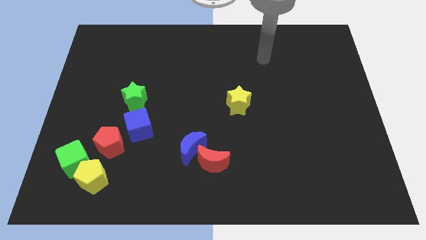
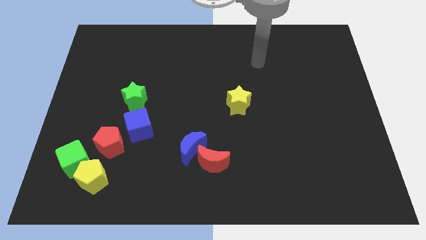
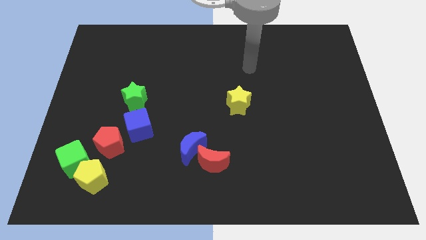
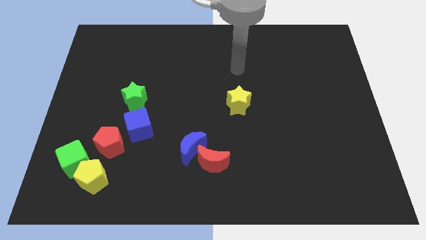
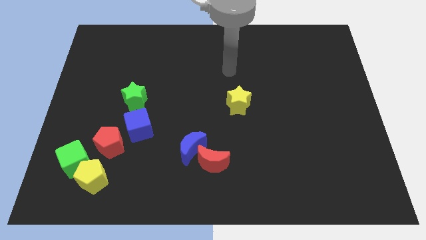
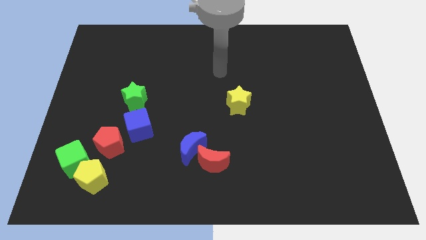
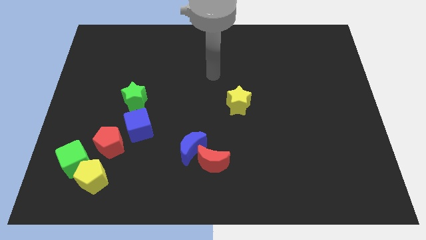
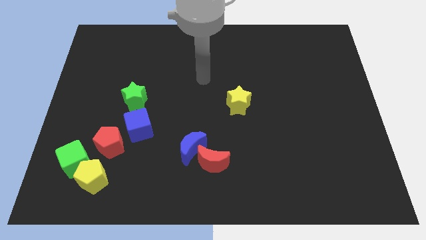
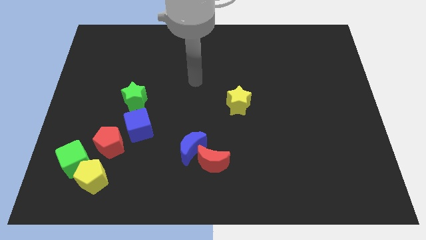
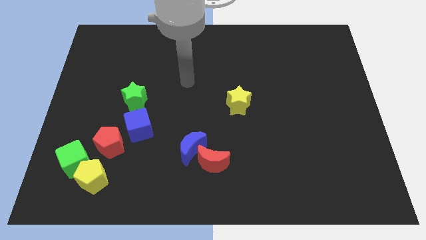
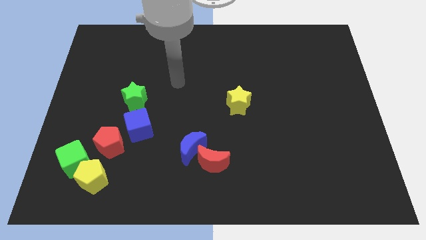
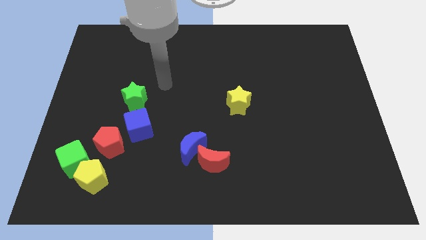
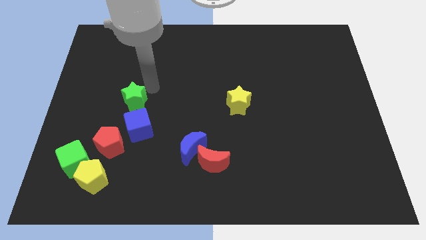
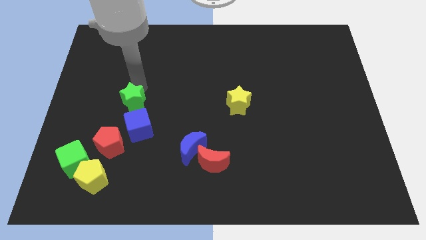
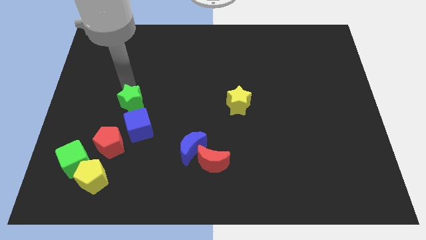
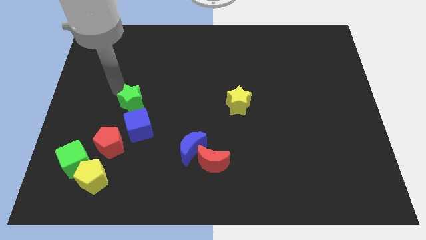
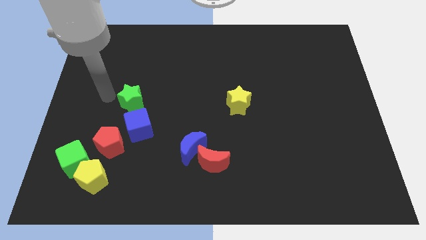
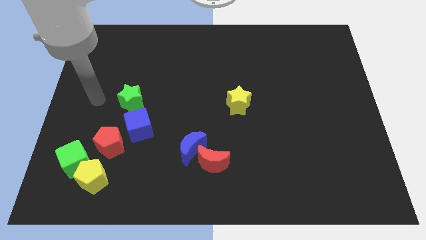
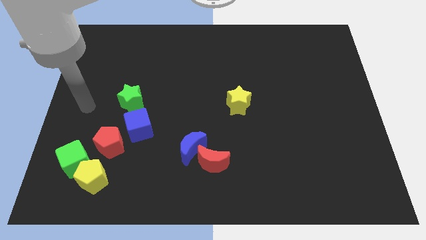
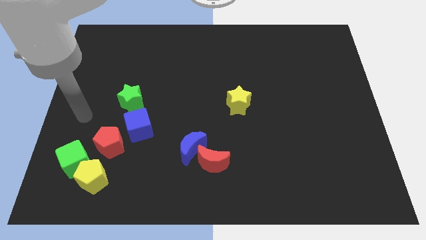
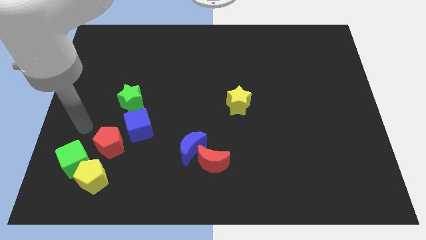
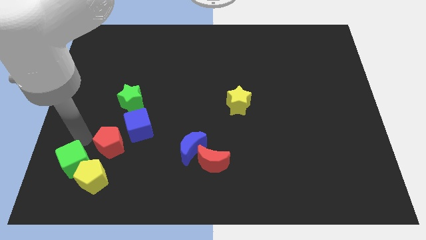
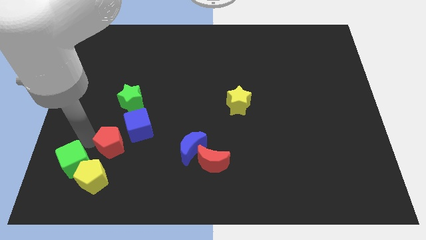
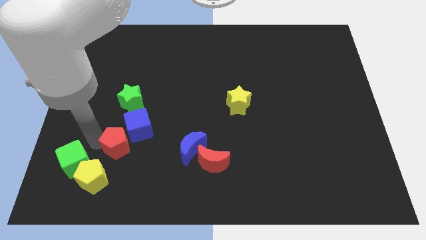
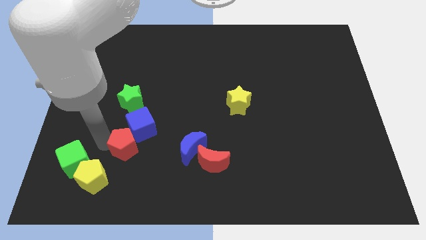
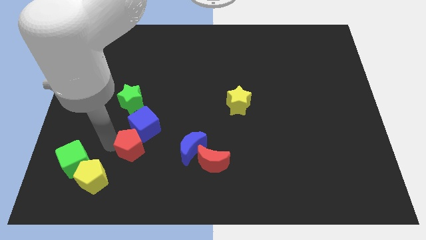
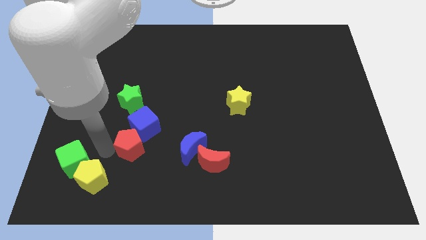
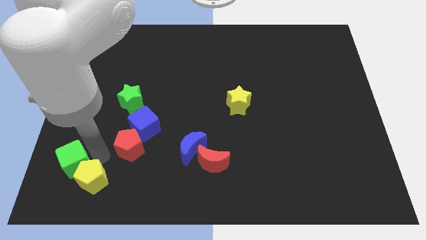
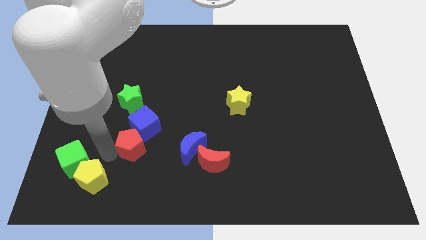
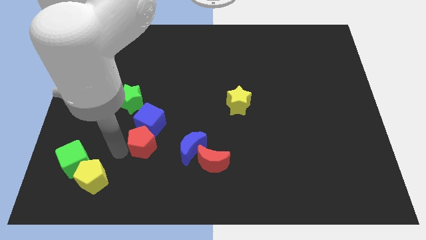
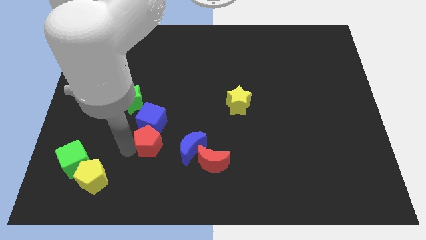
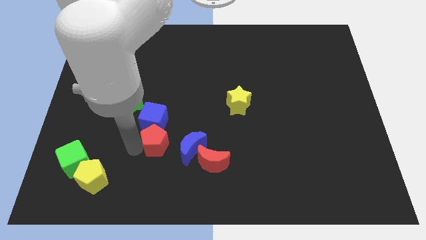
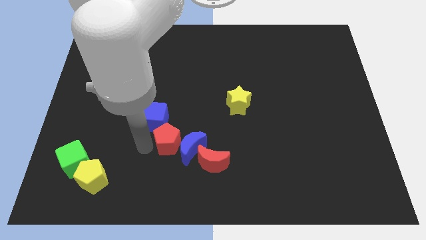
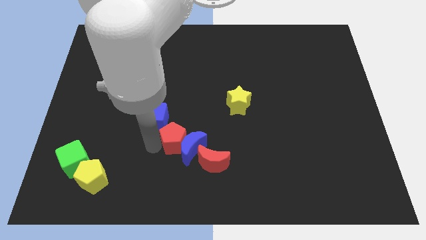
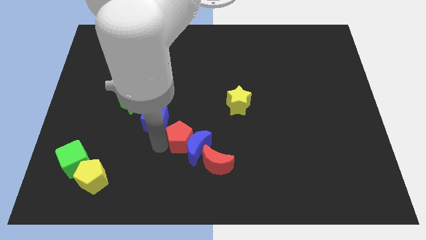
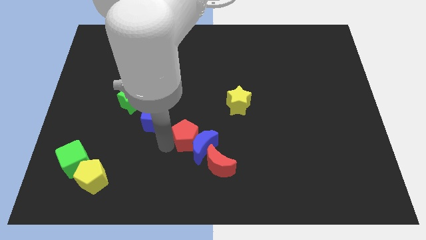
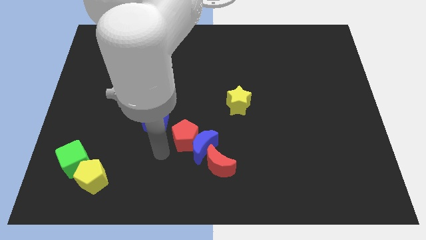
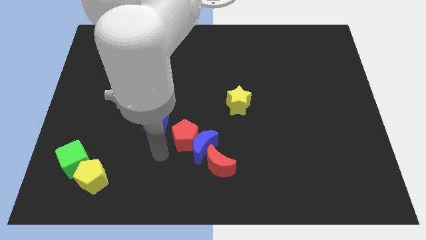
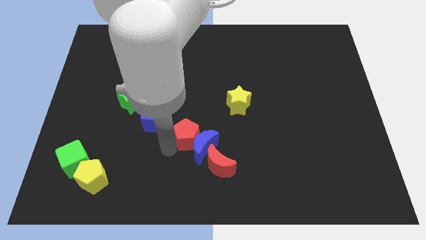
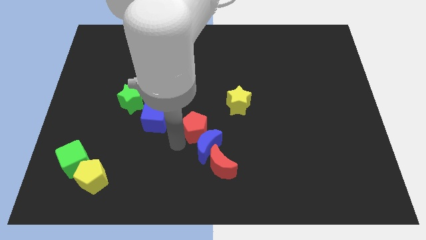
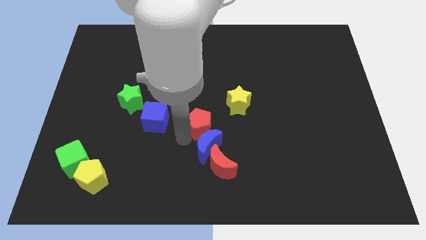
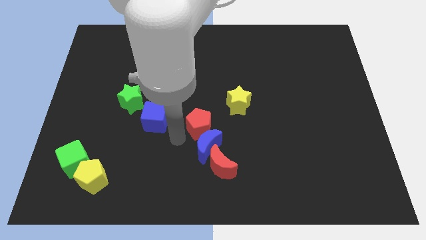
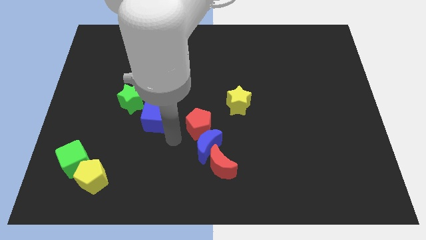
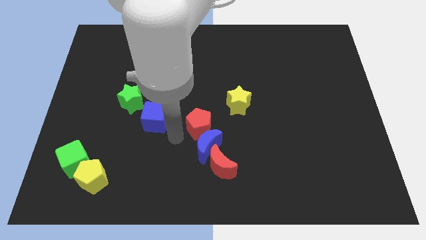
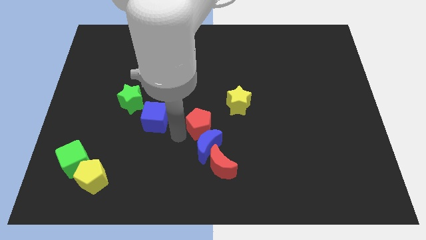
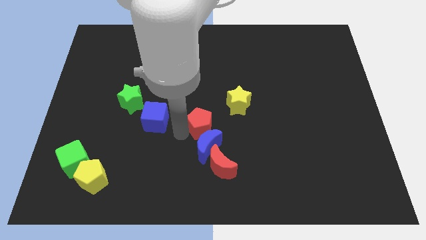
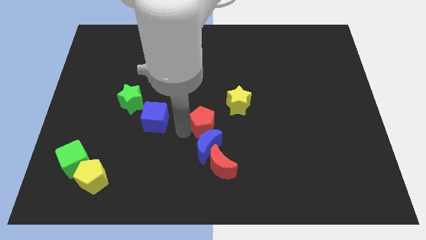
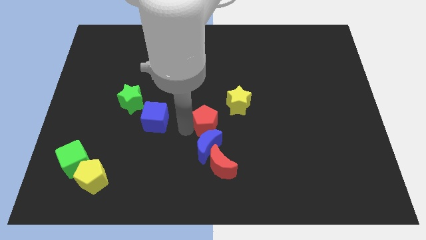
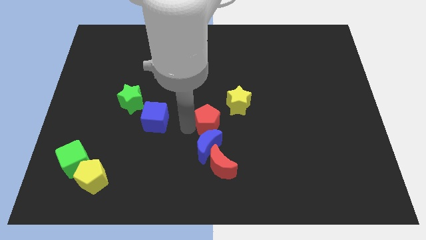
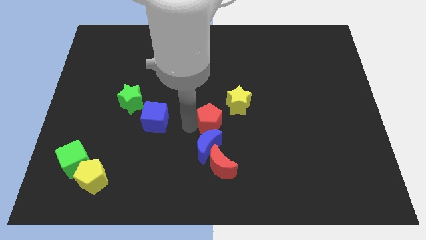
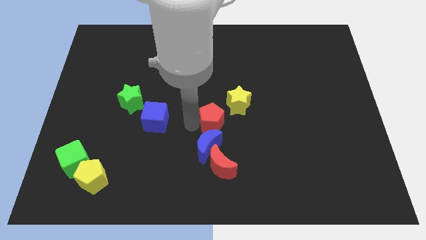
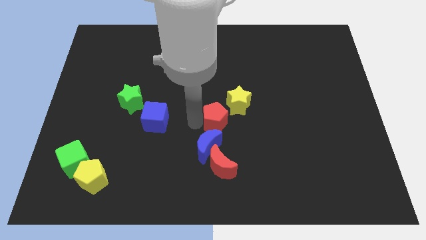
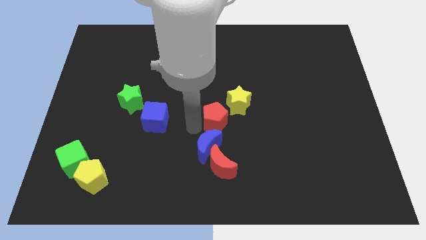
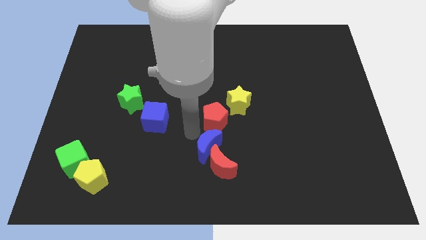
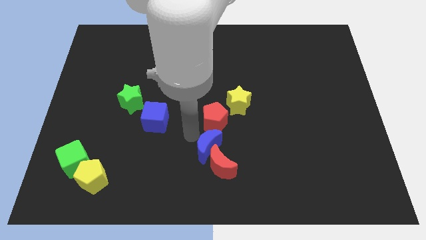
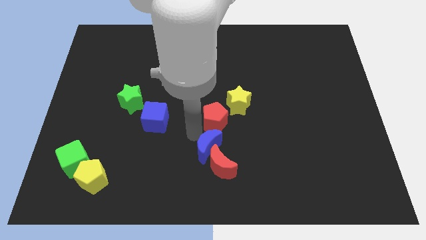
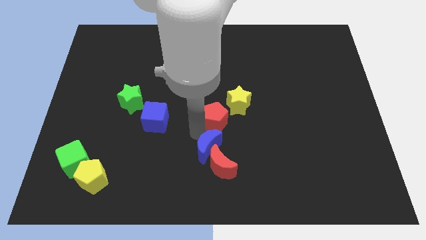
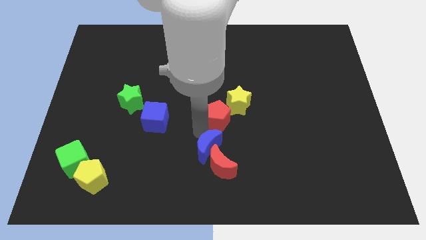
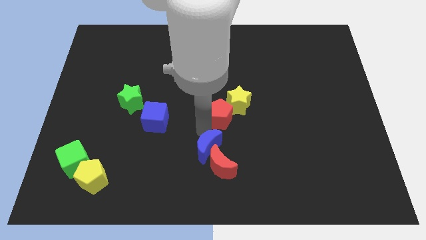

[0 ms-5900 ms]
put the red pentagon next to the yellow star

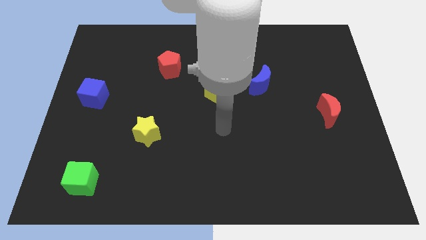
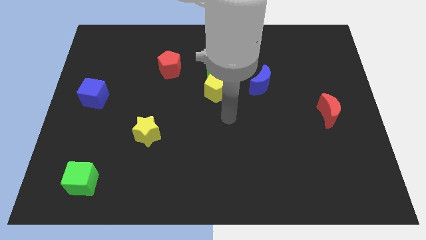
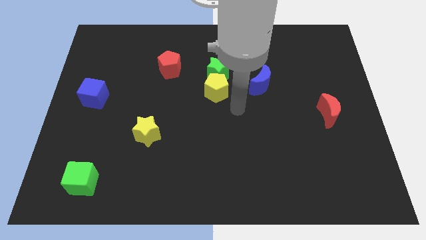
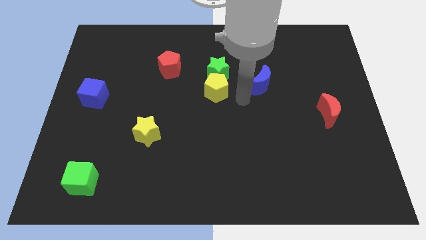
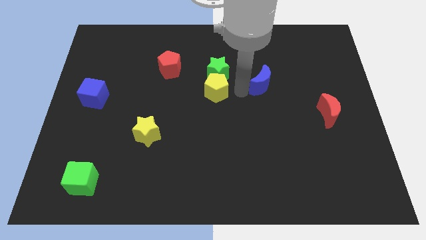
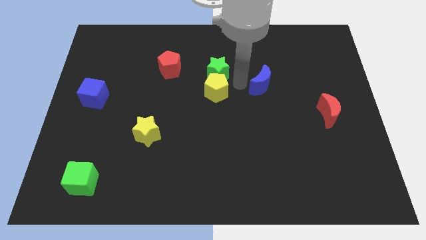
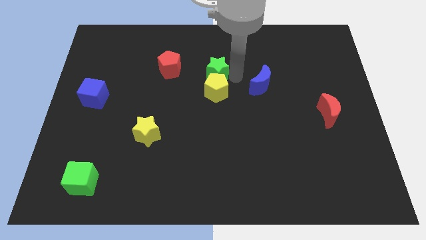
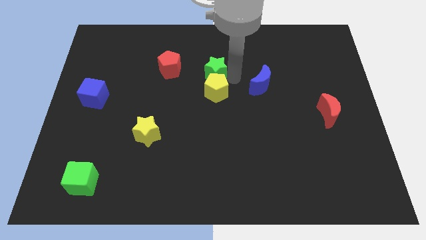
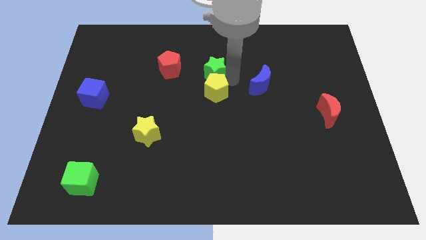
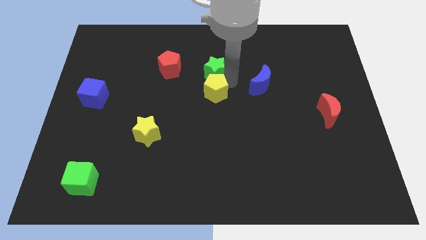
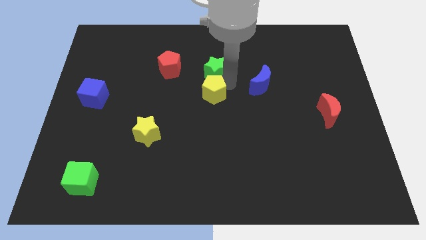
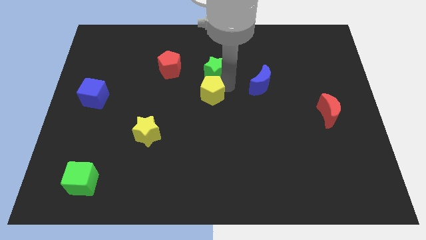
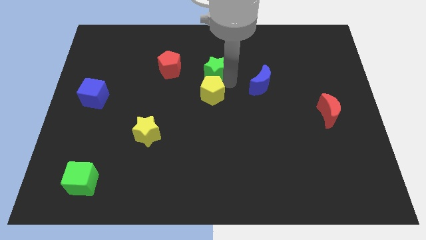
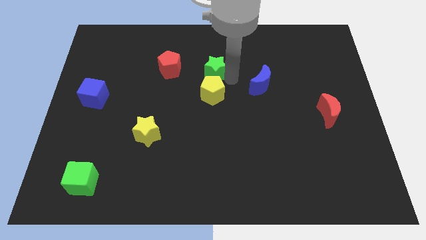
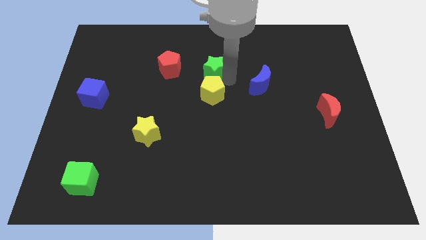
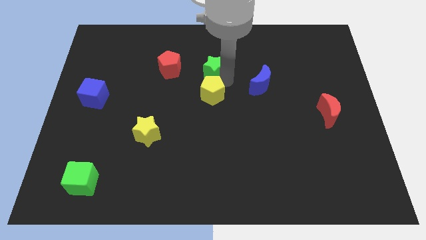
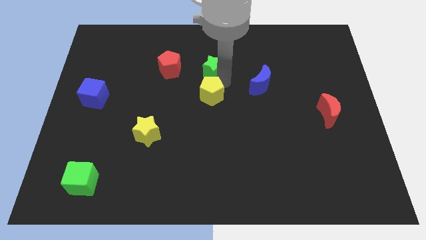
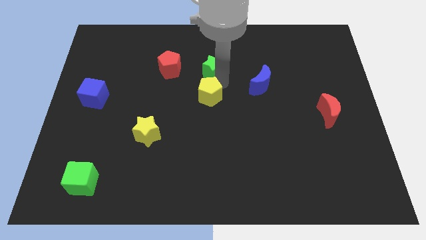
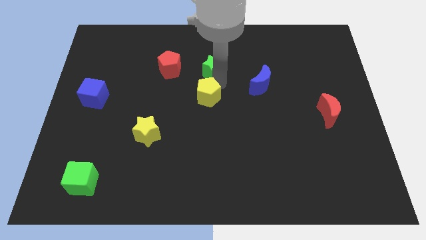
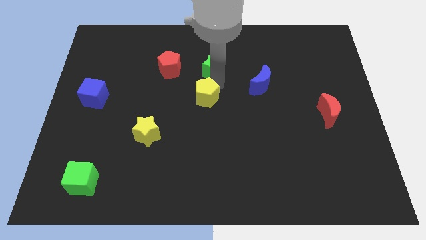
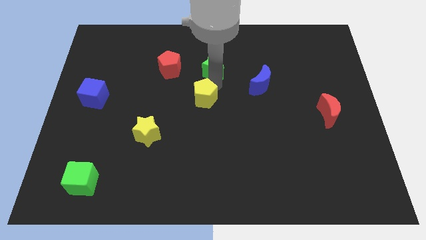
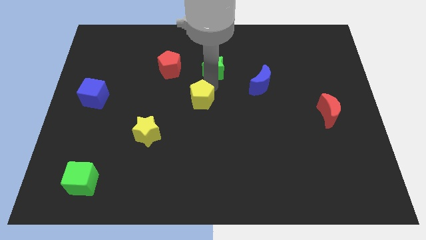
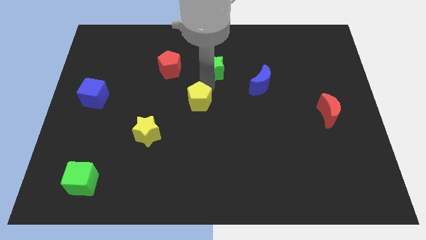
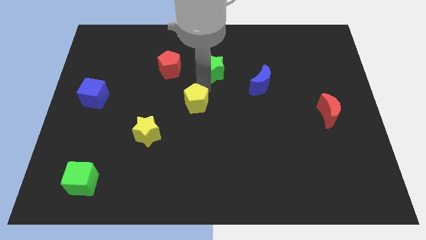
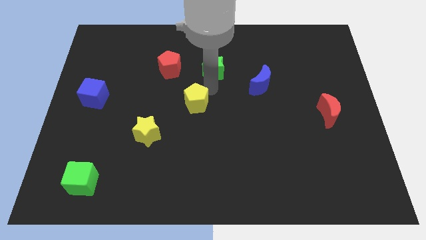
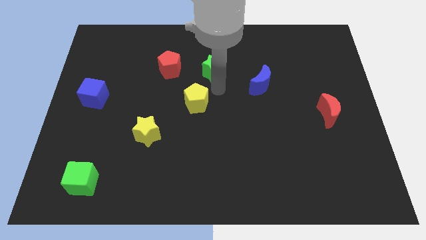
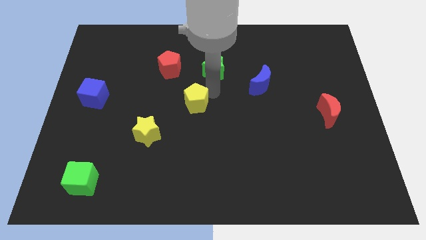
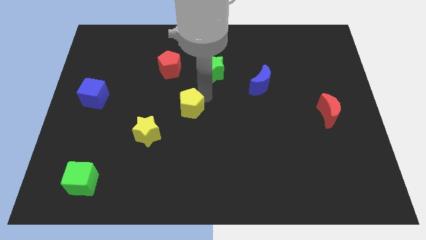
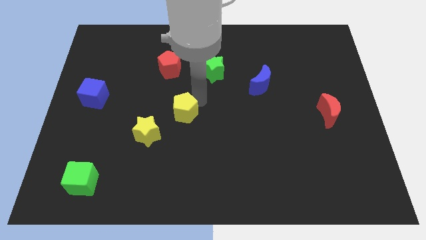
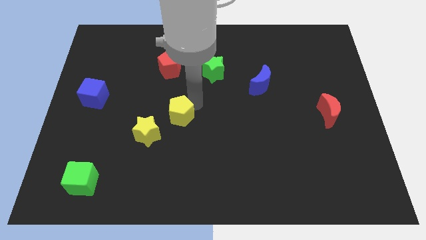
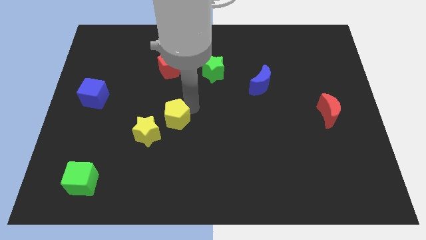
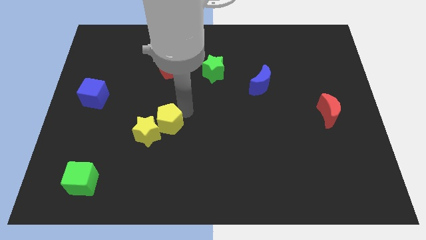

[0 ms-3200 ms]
push the yellow pentagon to the yellow star
